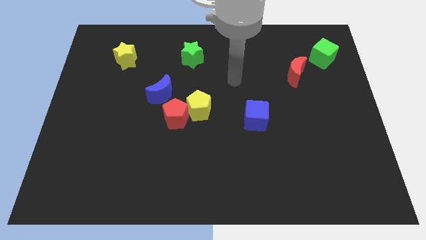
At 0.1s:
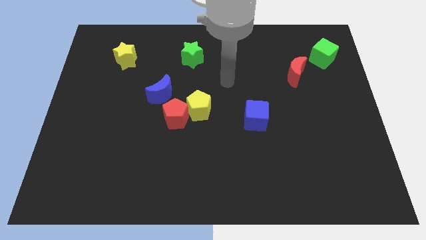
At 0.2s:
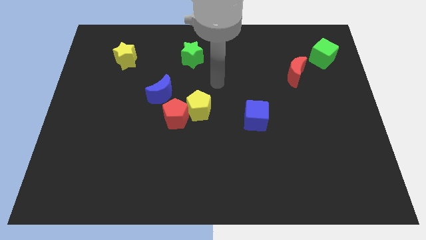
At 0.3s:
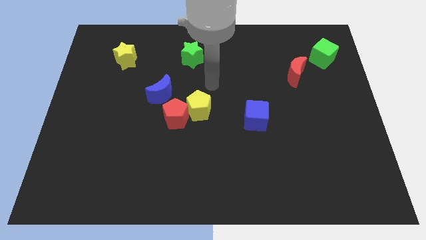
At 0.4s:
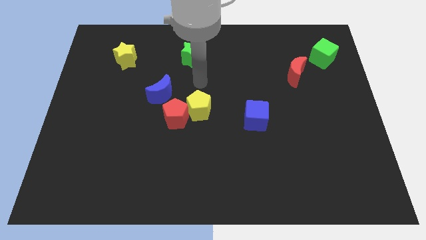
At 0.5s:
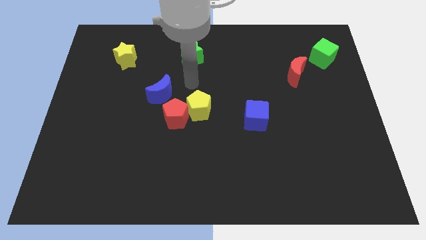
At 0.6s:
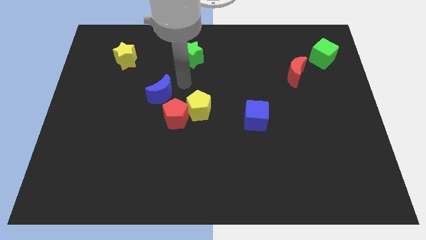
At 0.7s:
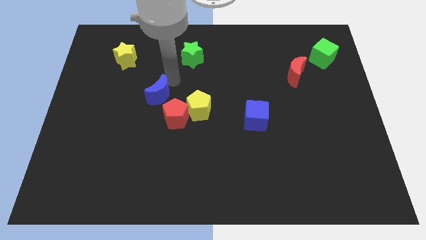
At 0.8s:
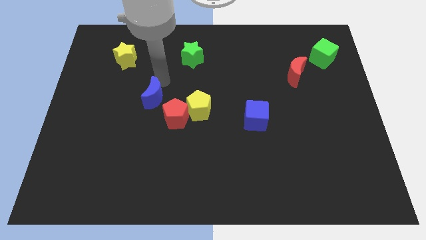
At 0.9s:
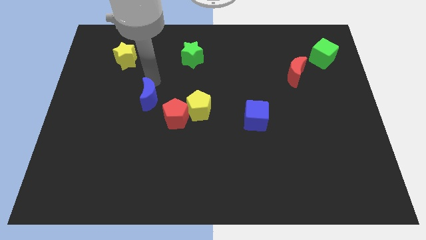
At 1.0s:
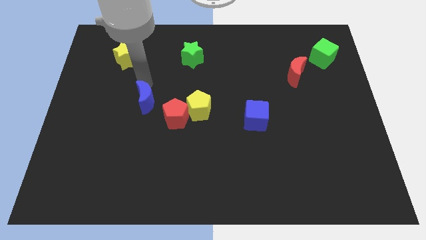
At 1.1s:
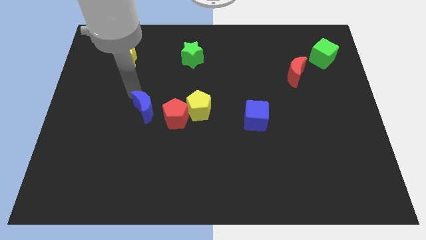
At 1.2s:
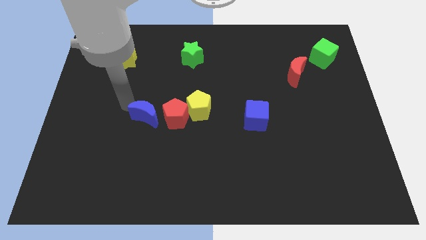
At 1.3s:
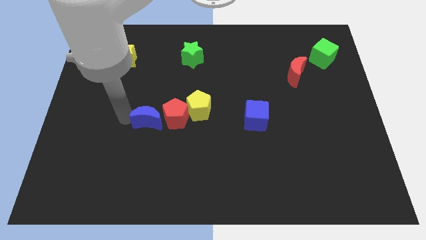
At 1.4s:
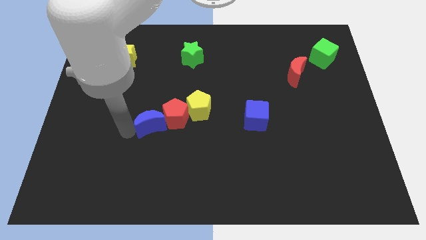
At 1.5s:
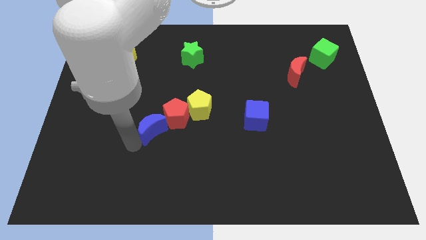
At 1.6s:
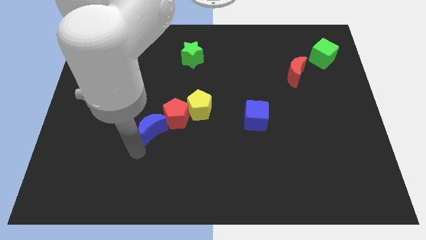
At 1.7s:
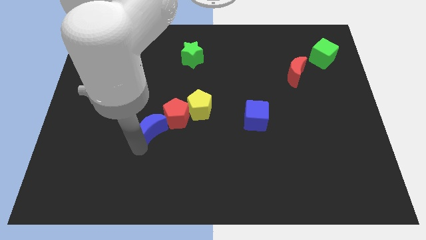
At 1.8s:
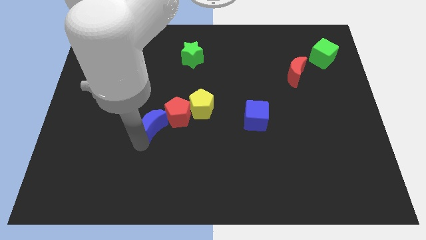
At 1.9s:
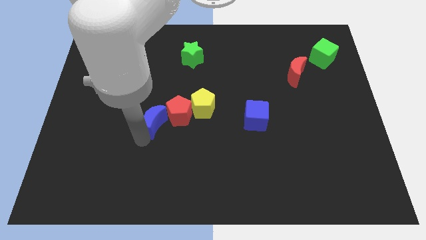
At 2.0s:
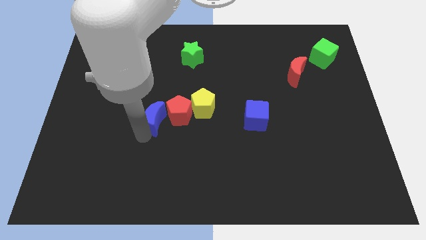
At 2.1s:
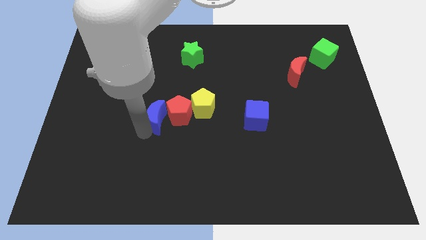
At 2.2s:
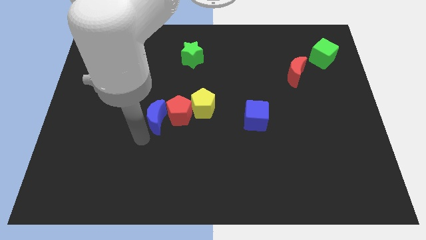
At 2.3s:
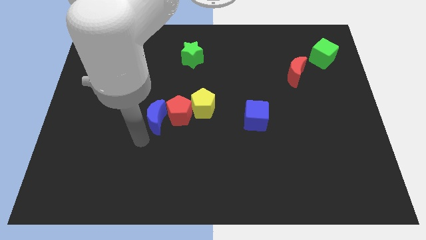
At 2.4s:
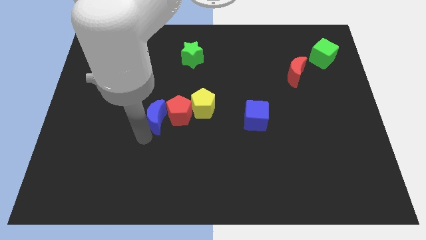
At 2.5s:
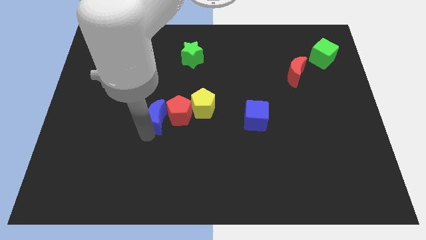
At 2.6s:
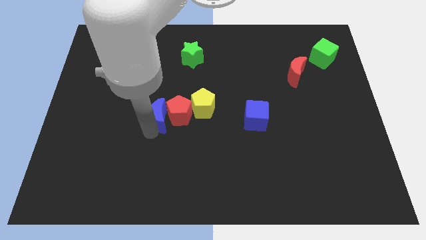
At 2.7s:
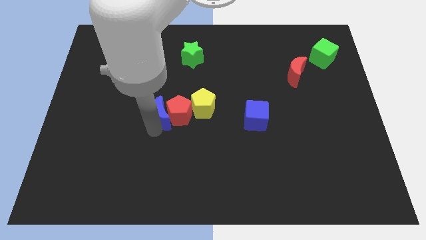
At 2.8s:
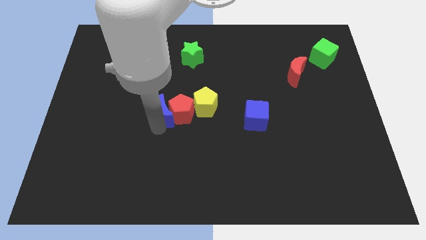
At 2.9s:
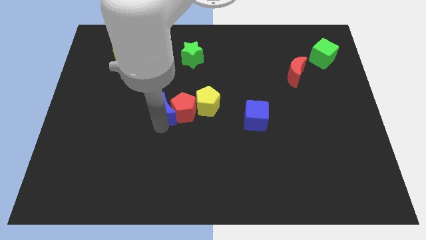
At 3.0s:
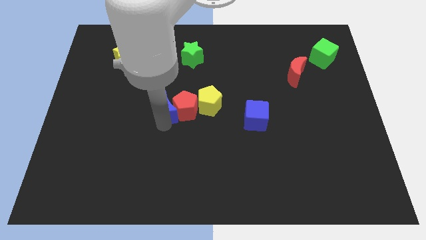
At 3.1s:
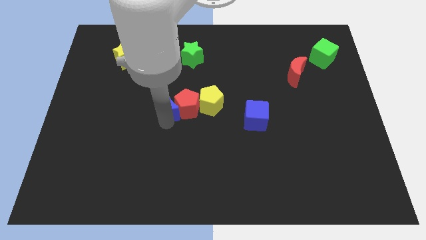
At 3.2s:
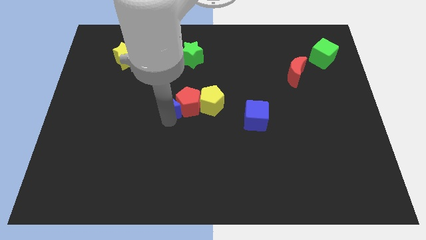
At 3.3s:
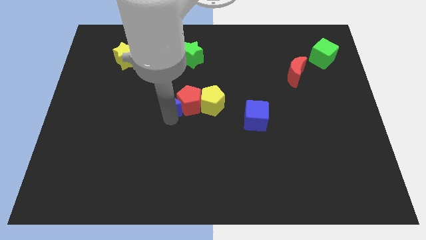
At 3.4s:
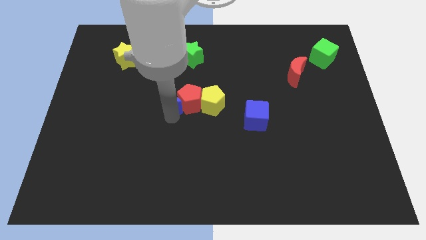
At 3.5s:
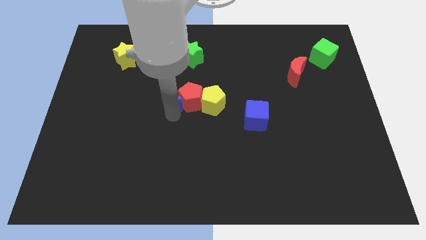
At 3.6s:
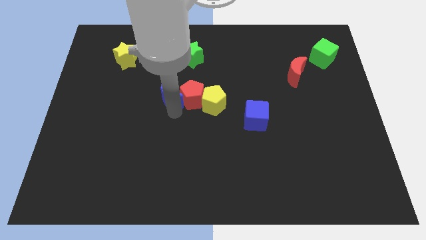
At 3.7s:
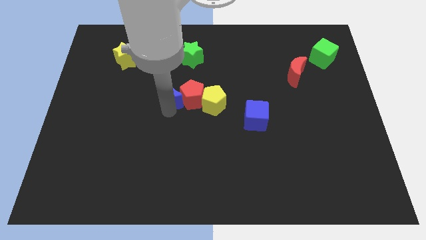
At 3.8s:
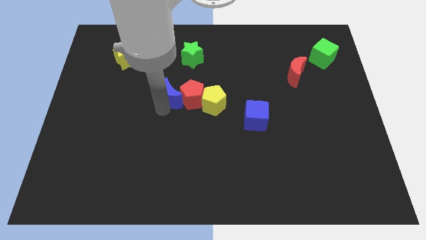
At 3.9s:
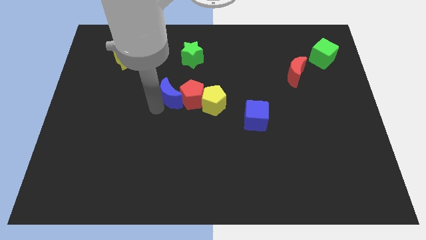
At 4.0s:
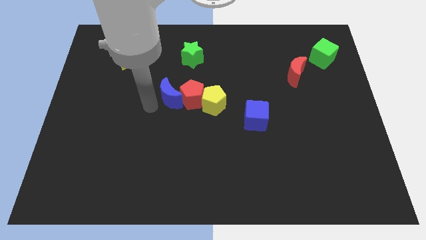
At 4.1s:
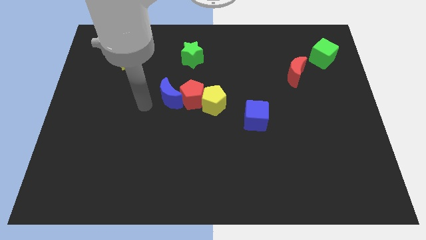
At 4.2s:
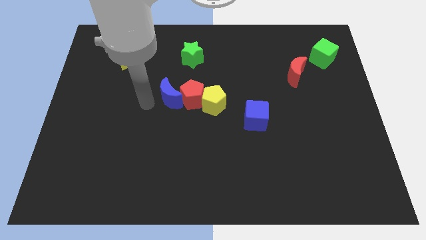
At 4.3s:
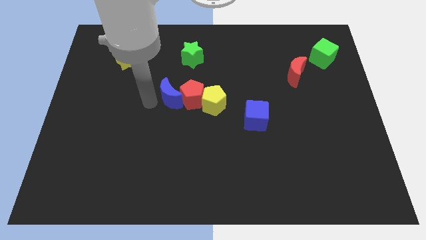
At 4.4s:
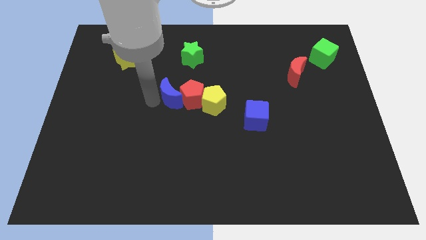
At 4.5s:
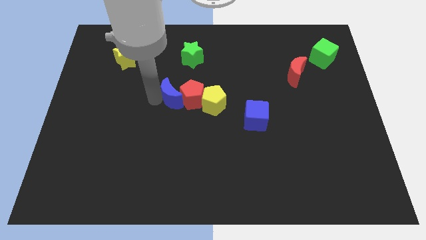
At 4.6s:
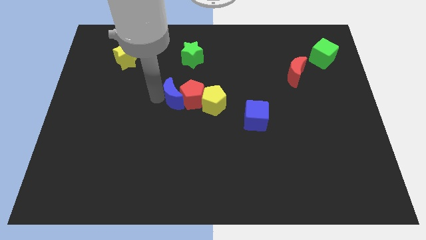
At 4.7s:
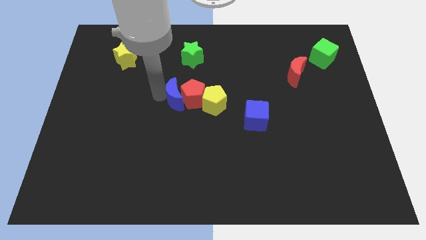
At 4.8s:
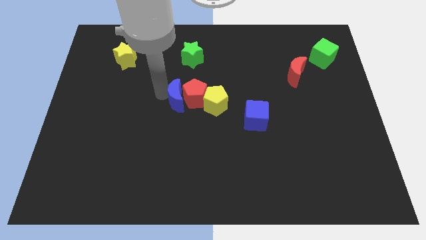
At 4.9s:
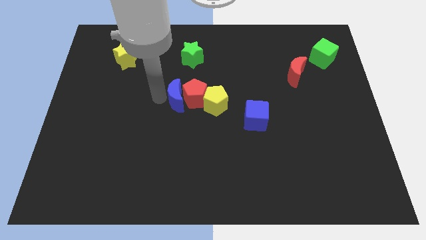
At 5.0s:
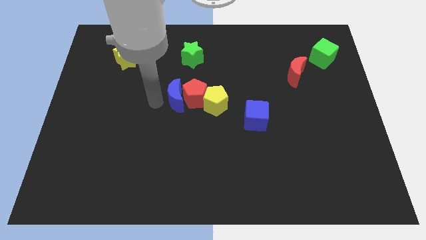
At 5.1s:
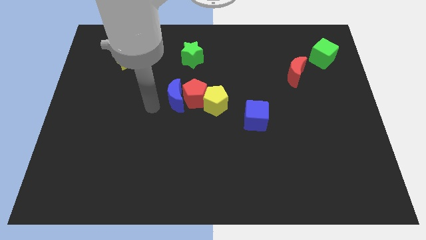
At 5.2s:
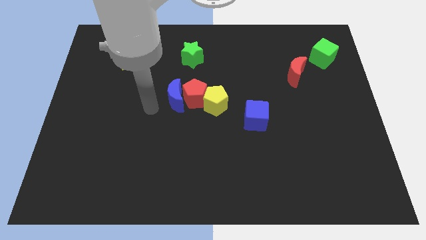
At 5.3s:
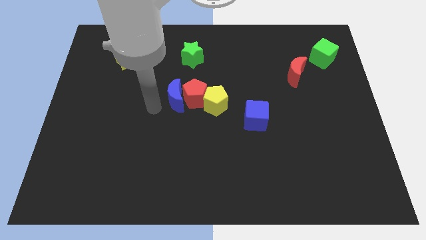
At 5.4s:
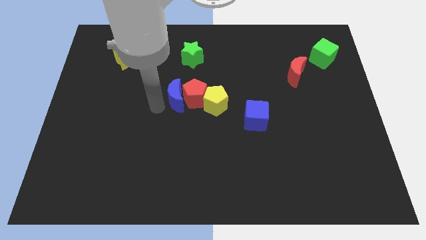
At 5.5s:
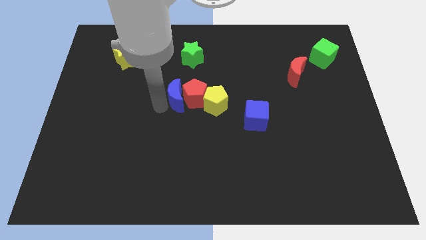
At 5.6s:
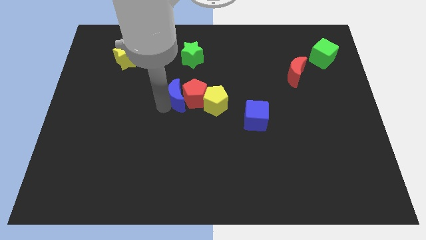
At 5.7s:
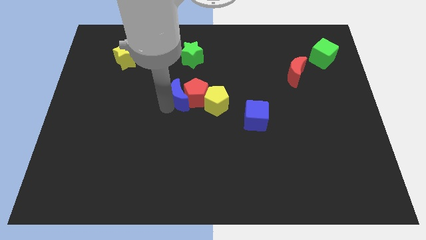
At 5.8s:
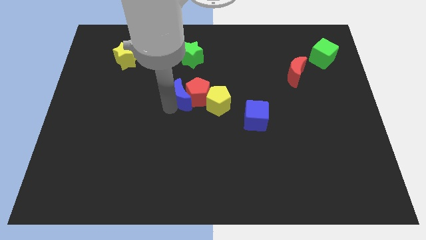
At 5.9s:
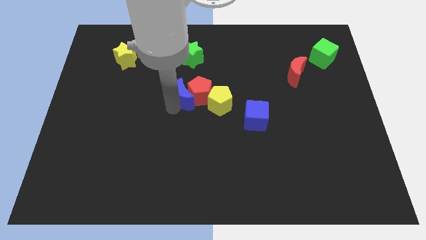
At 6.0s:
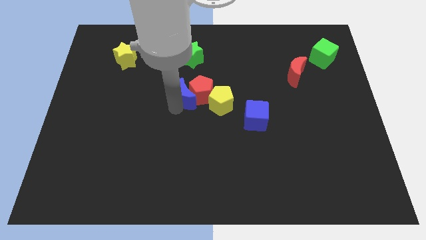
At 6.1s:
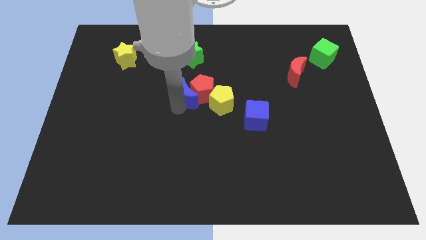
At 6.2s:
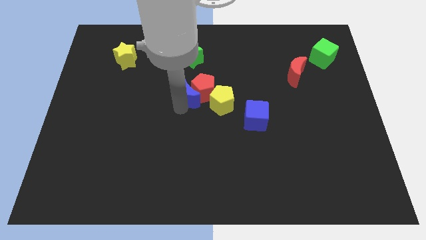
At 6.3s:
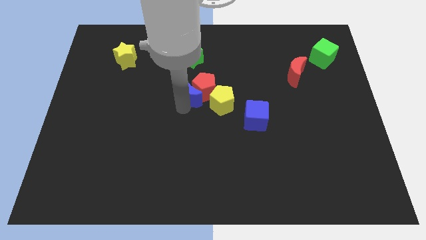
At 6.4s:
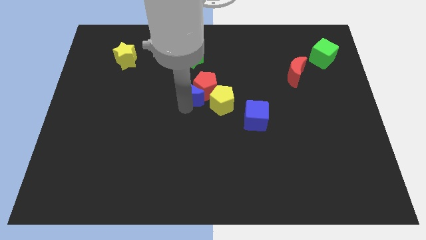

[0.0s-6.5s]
push the blue moon a bit right

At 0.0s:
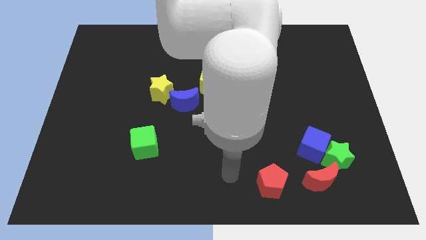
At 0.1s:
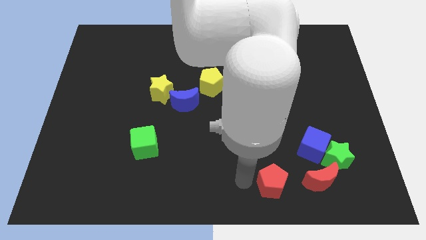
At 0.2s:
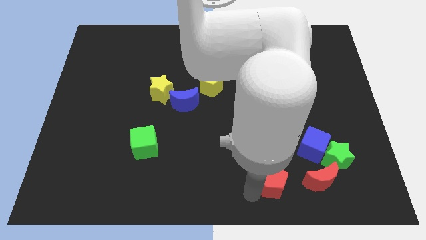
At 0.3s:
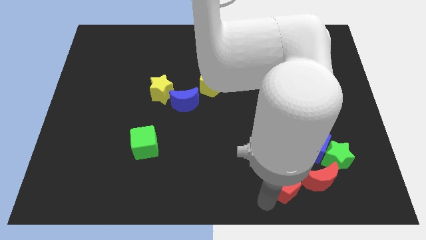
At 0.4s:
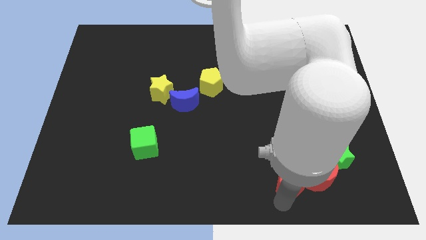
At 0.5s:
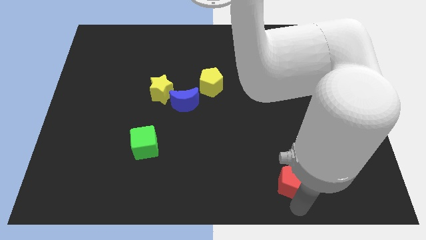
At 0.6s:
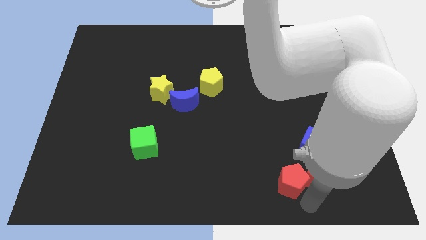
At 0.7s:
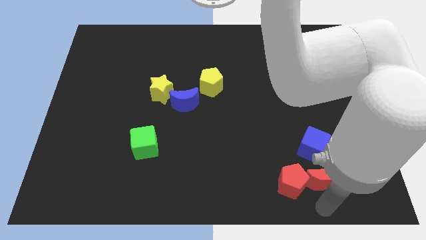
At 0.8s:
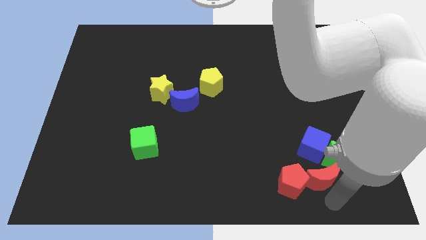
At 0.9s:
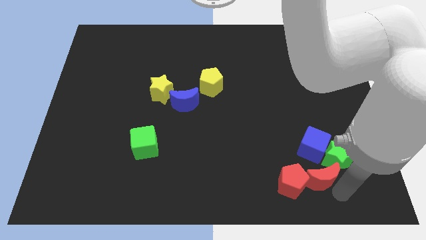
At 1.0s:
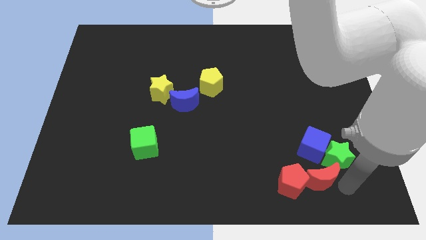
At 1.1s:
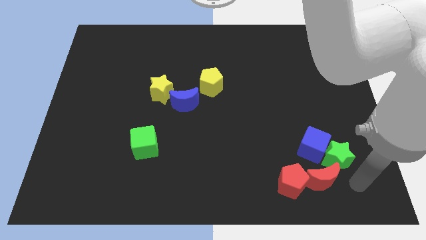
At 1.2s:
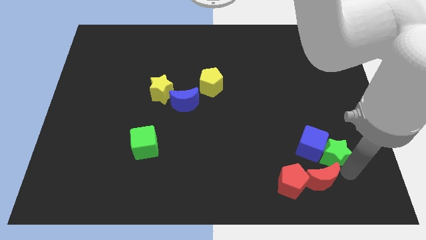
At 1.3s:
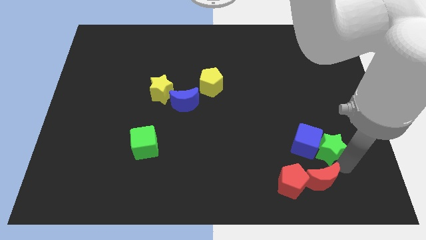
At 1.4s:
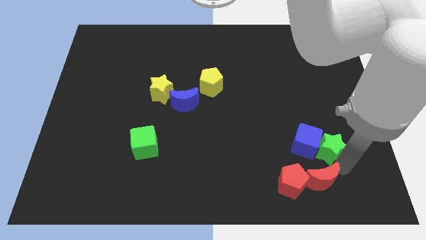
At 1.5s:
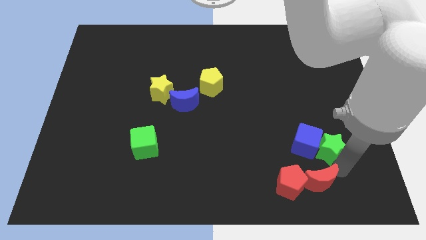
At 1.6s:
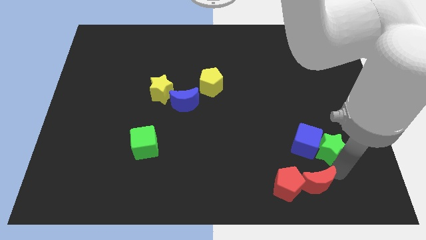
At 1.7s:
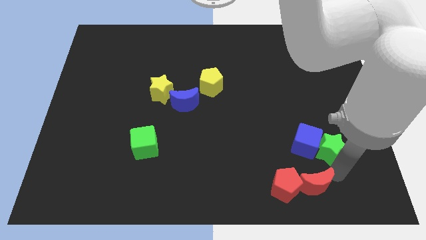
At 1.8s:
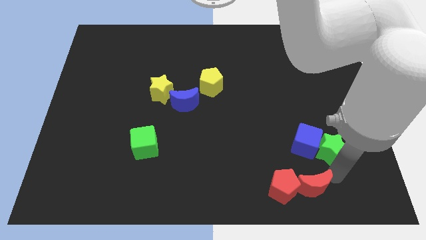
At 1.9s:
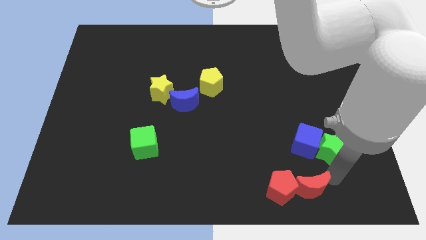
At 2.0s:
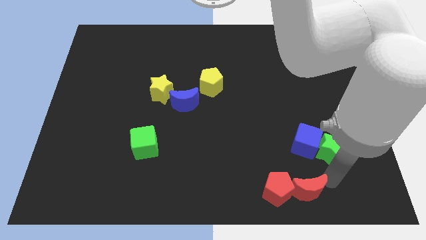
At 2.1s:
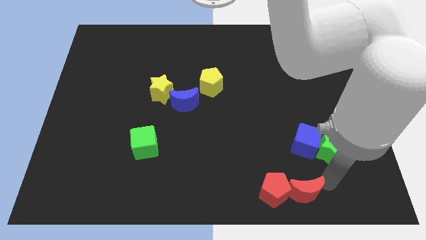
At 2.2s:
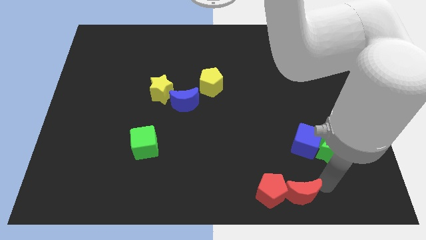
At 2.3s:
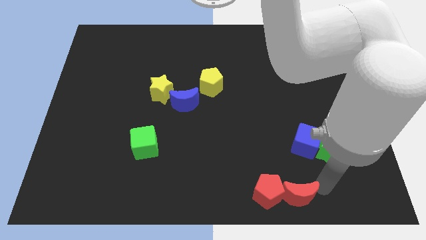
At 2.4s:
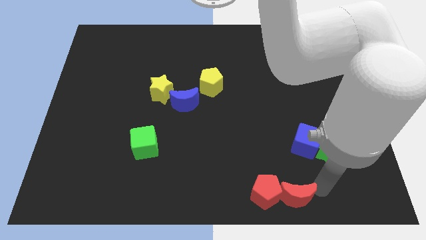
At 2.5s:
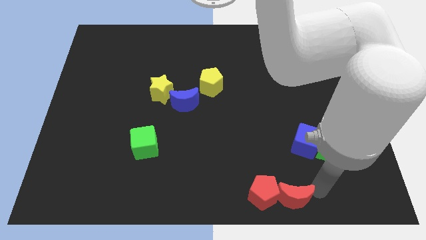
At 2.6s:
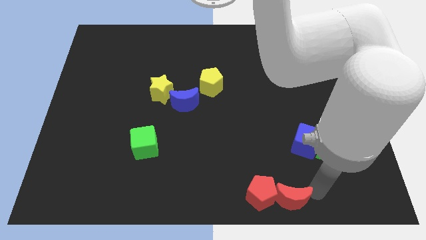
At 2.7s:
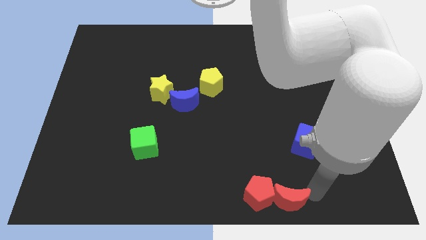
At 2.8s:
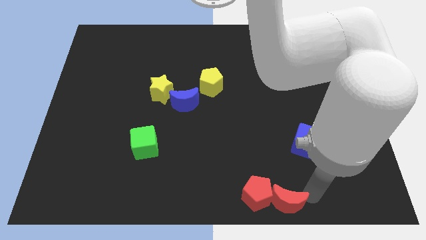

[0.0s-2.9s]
move the red moon somewhat to the left
